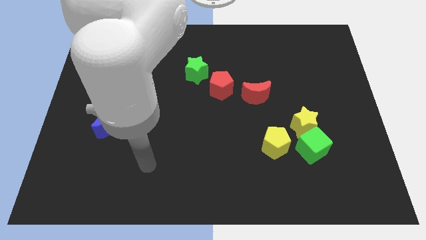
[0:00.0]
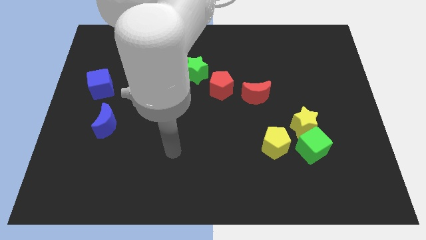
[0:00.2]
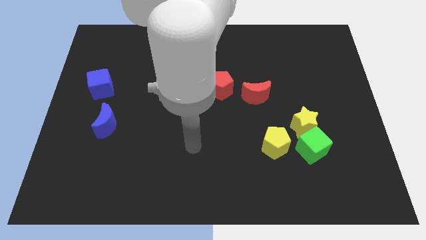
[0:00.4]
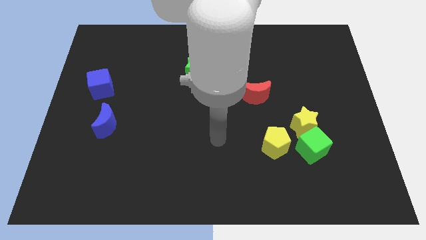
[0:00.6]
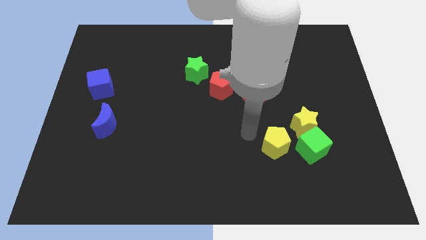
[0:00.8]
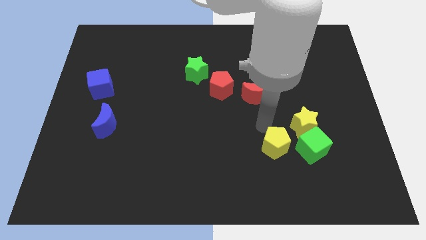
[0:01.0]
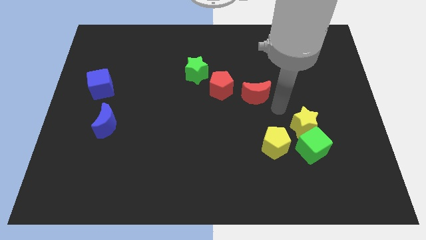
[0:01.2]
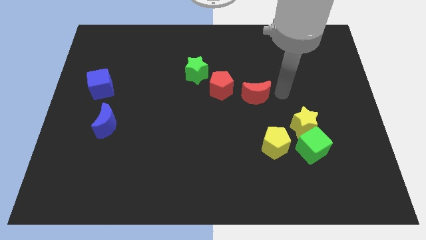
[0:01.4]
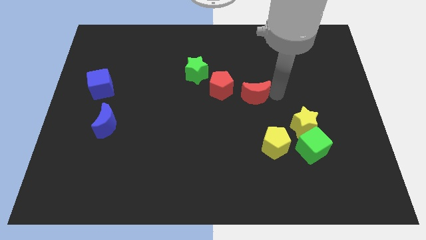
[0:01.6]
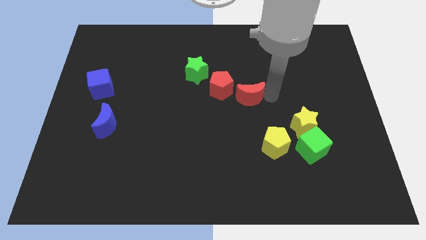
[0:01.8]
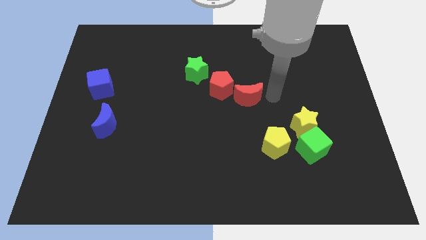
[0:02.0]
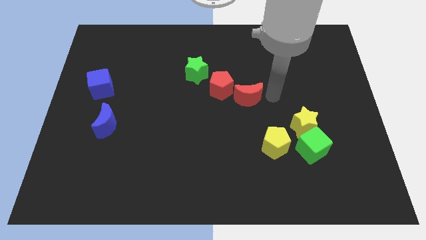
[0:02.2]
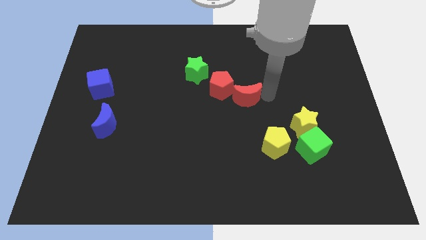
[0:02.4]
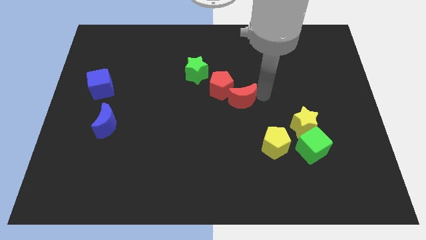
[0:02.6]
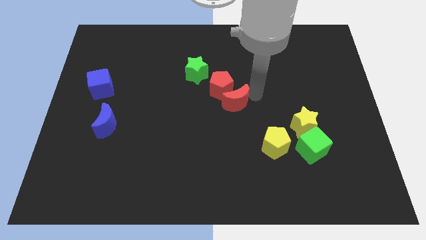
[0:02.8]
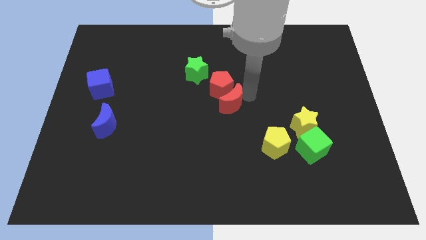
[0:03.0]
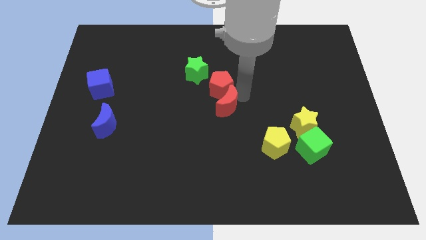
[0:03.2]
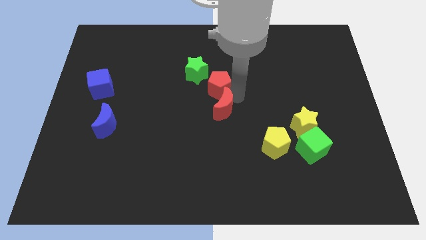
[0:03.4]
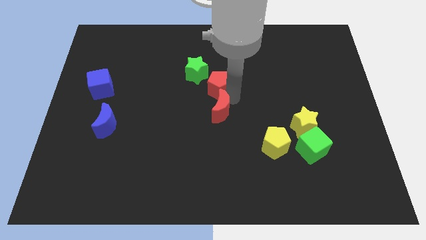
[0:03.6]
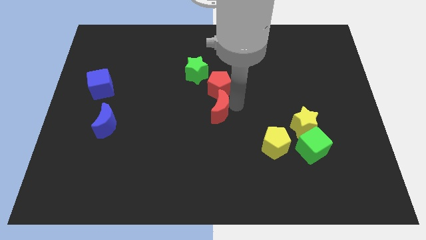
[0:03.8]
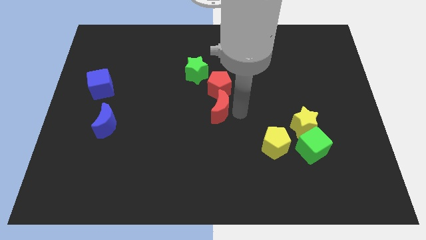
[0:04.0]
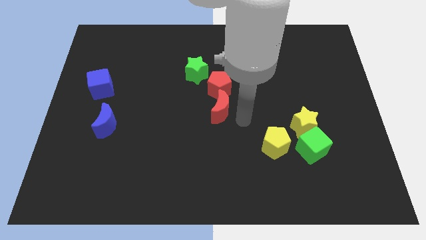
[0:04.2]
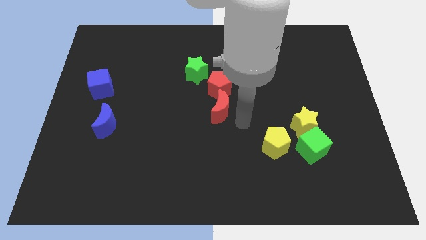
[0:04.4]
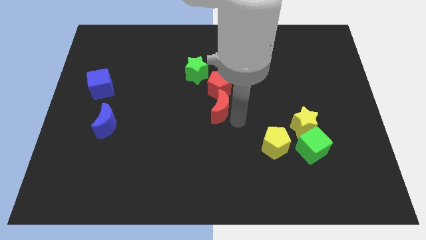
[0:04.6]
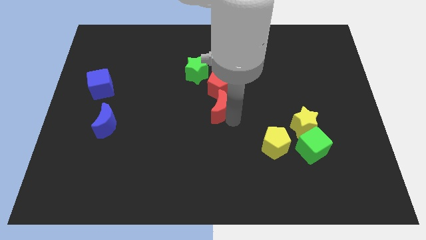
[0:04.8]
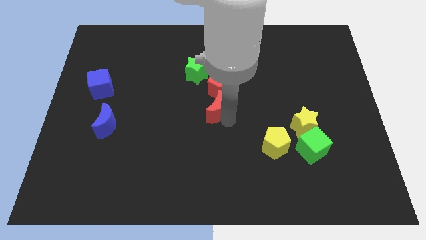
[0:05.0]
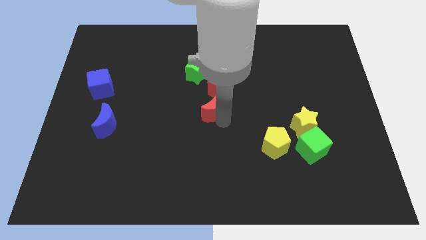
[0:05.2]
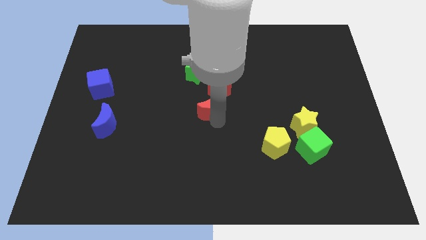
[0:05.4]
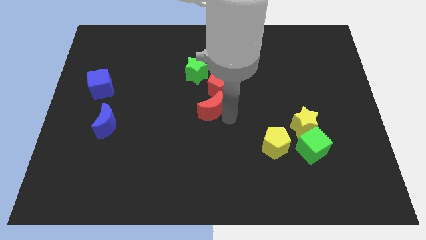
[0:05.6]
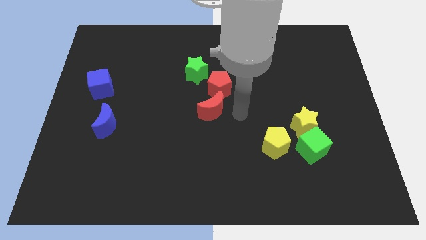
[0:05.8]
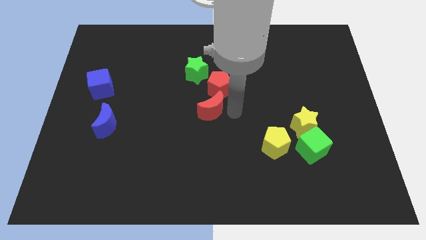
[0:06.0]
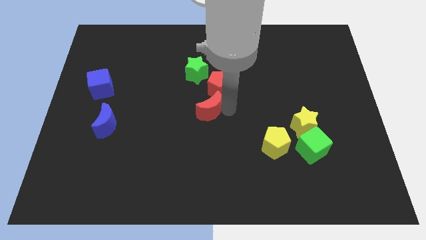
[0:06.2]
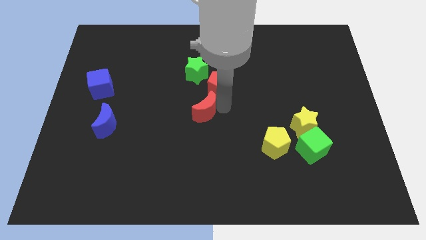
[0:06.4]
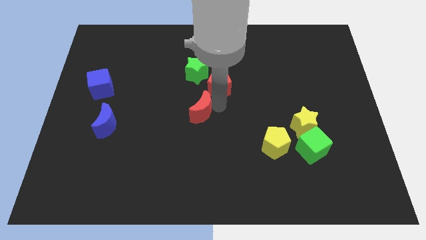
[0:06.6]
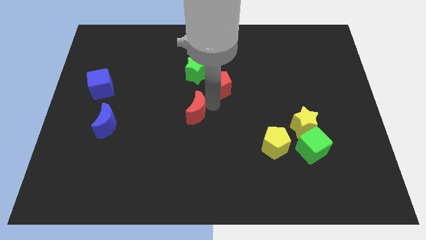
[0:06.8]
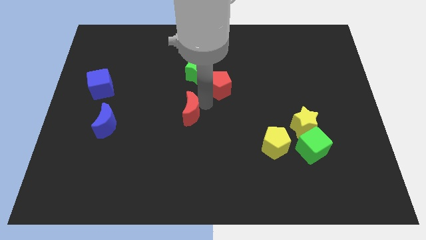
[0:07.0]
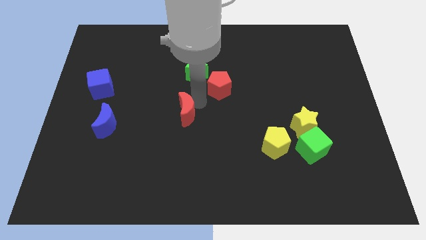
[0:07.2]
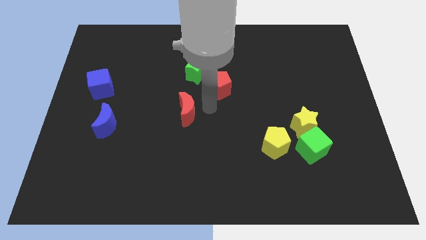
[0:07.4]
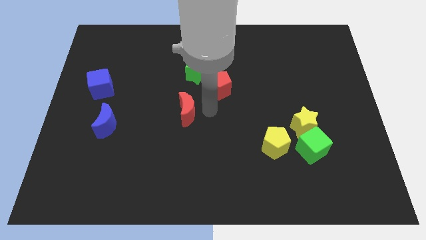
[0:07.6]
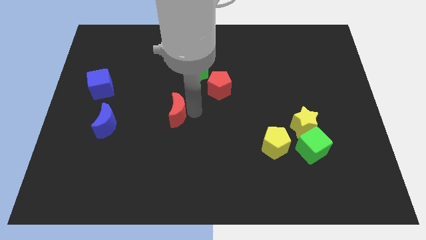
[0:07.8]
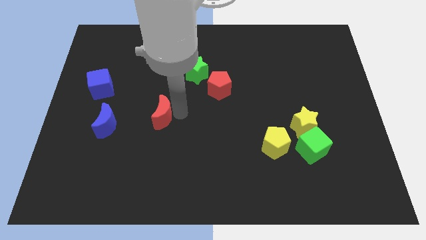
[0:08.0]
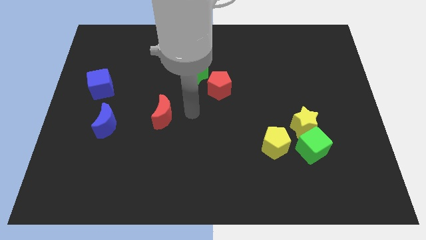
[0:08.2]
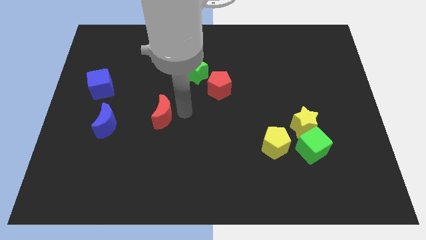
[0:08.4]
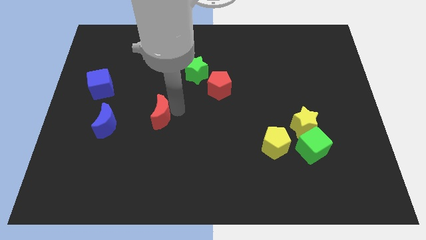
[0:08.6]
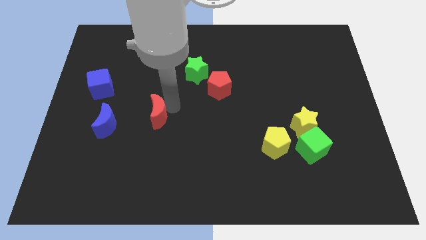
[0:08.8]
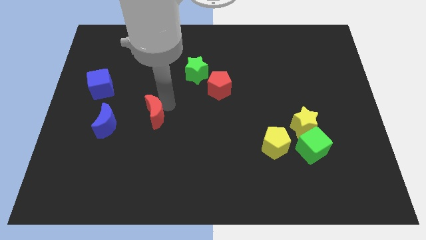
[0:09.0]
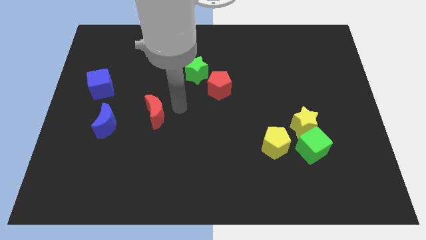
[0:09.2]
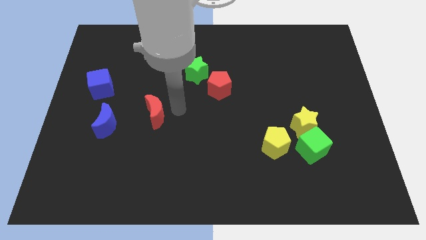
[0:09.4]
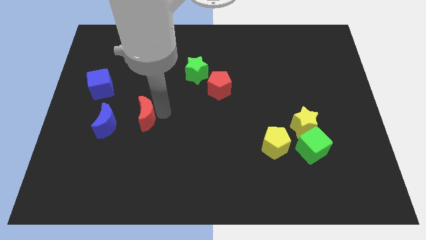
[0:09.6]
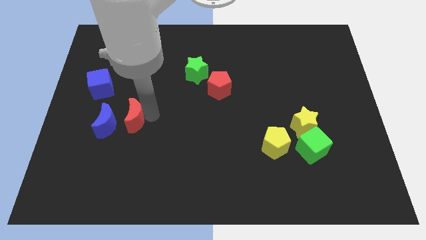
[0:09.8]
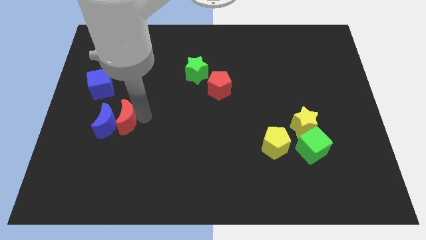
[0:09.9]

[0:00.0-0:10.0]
put the red moon close to the blue moon

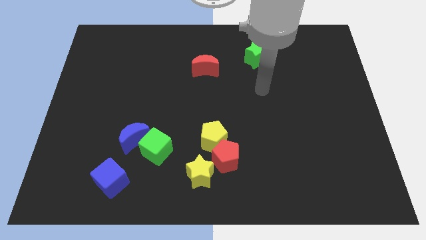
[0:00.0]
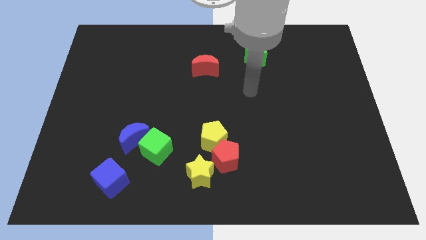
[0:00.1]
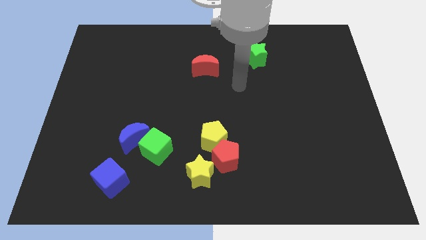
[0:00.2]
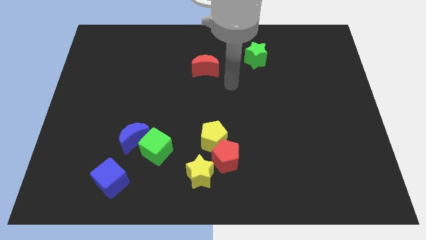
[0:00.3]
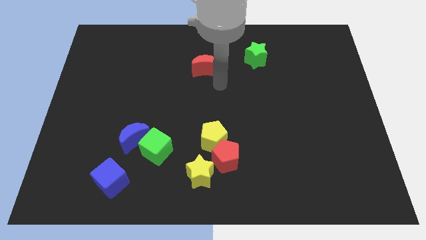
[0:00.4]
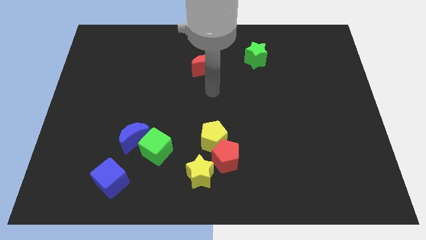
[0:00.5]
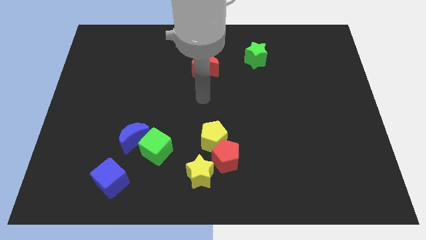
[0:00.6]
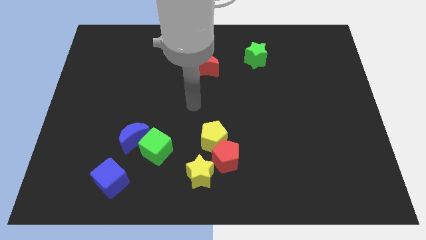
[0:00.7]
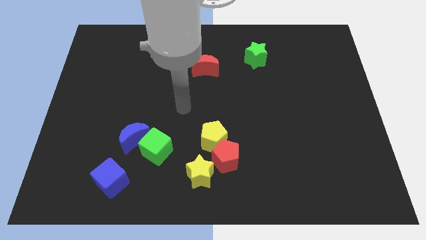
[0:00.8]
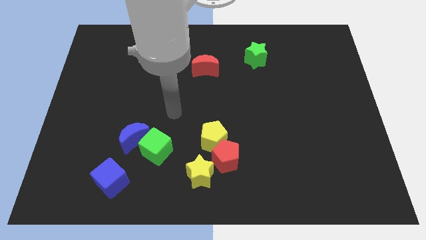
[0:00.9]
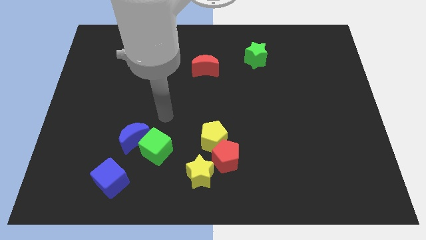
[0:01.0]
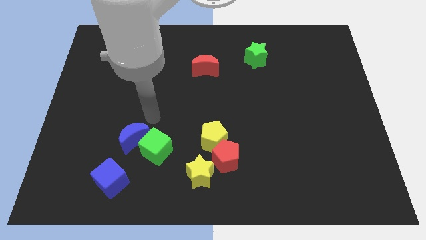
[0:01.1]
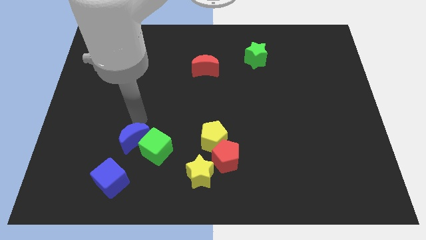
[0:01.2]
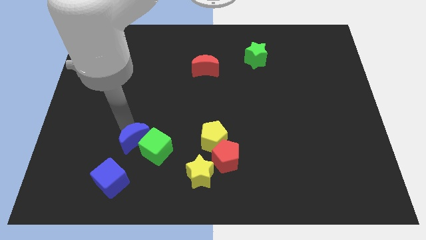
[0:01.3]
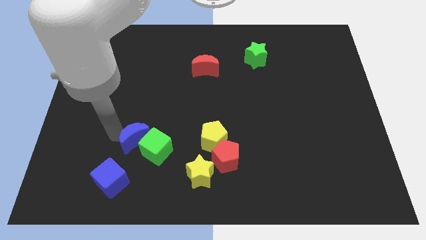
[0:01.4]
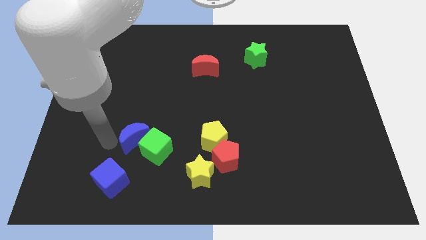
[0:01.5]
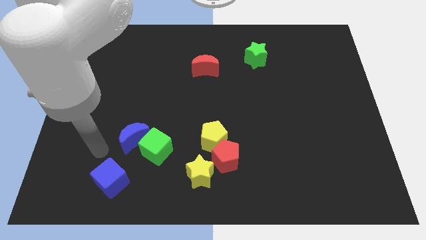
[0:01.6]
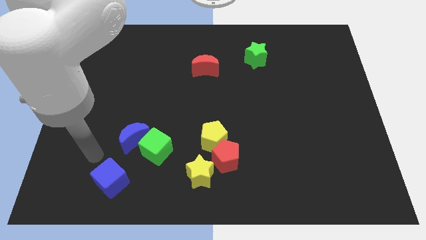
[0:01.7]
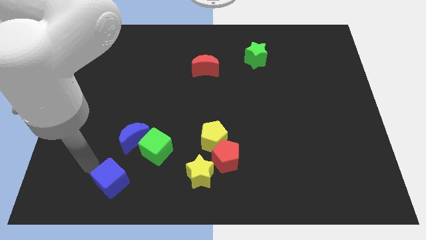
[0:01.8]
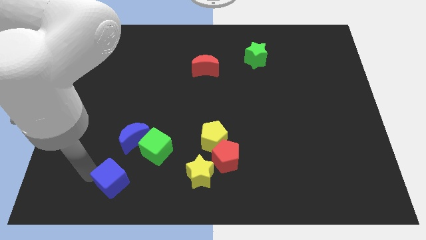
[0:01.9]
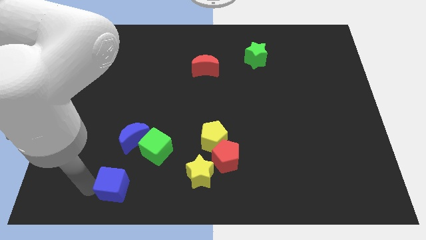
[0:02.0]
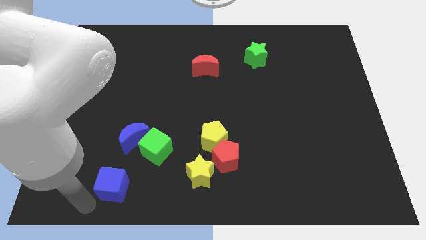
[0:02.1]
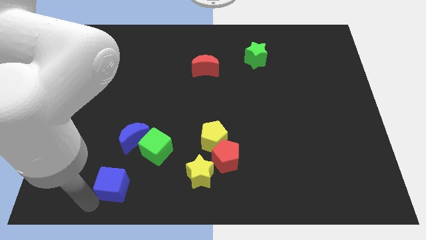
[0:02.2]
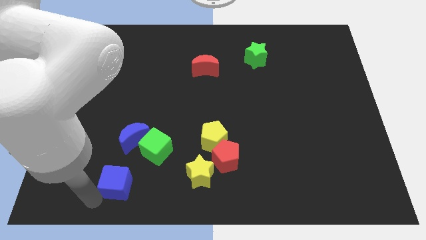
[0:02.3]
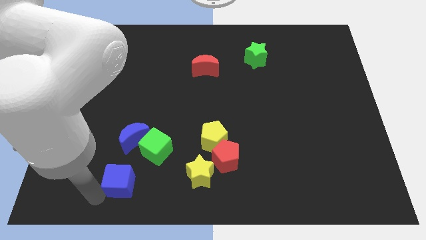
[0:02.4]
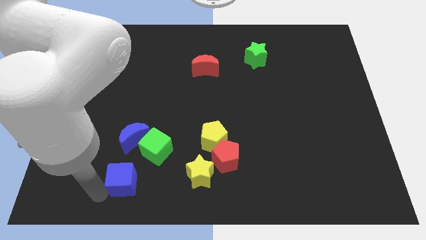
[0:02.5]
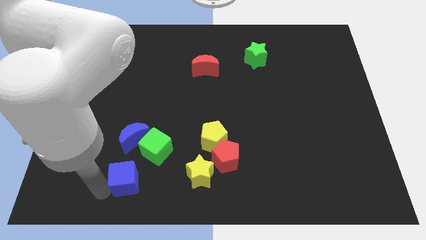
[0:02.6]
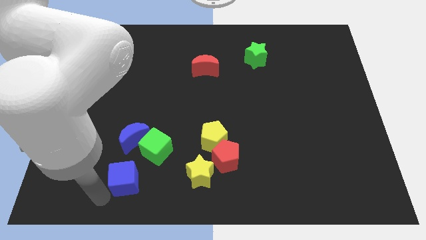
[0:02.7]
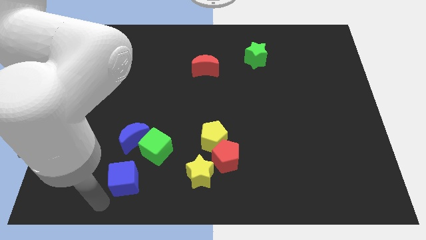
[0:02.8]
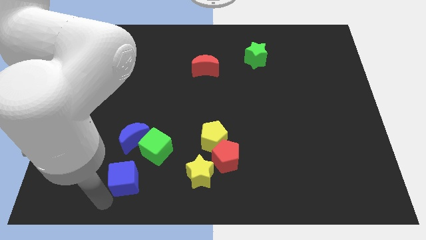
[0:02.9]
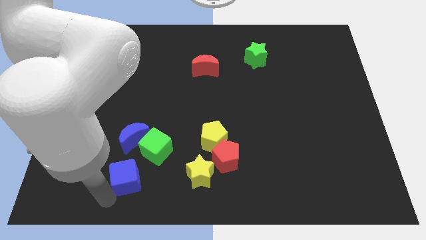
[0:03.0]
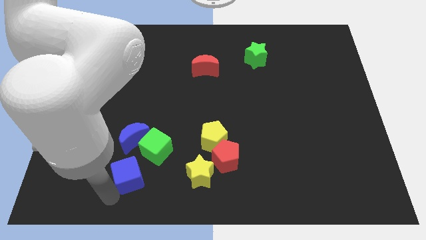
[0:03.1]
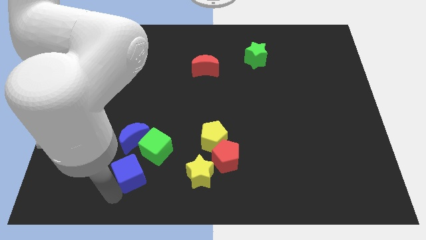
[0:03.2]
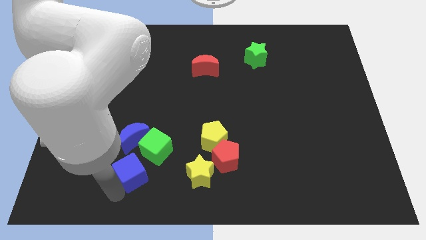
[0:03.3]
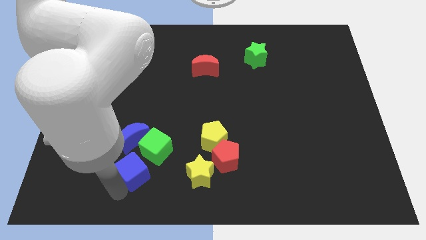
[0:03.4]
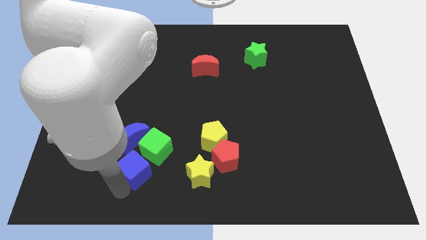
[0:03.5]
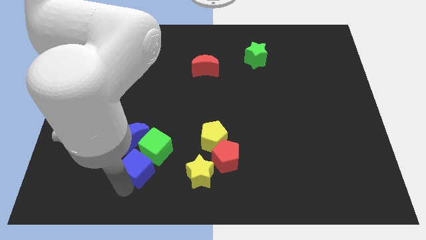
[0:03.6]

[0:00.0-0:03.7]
push the blue cube close to the green cube
